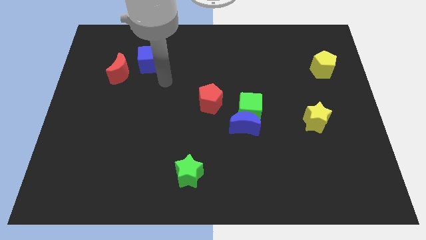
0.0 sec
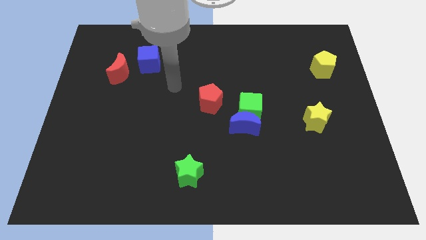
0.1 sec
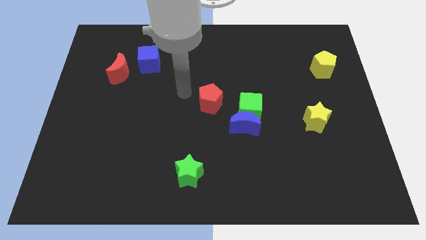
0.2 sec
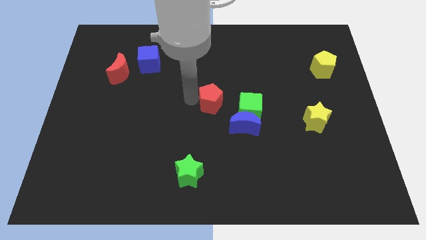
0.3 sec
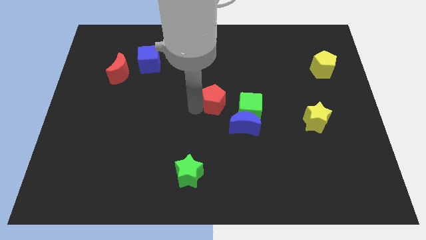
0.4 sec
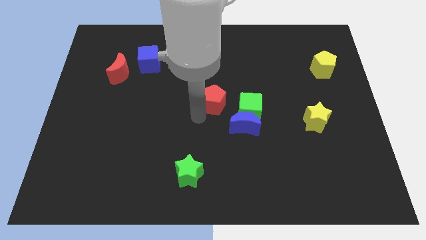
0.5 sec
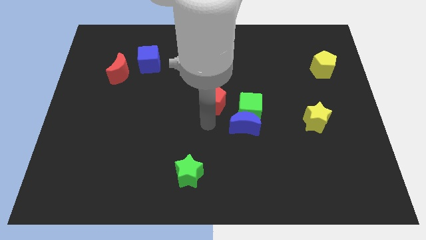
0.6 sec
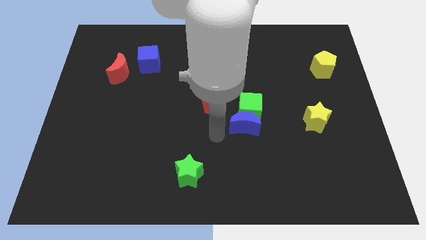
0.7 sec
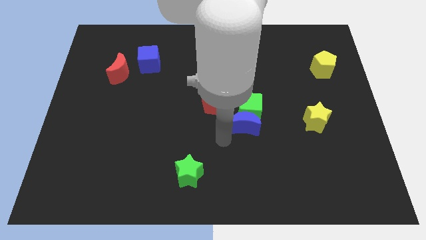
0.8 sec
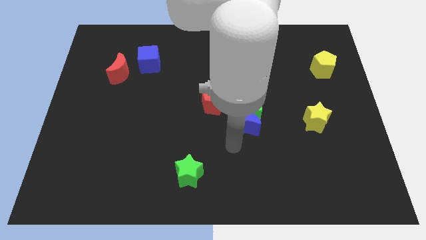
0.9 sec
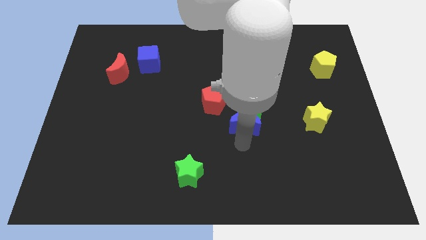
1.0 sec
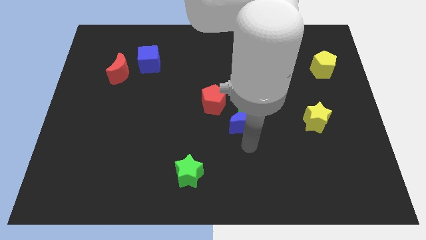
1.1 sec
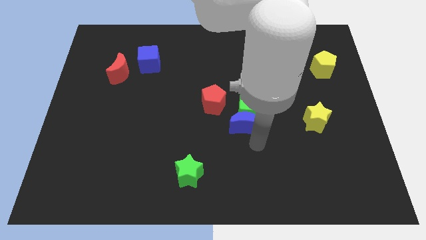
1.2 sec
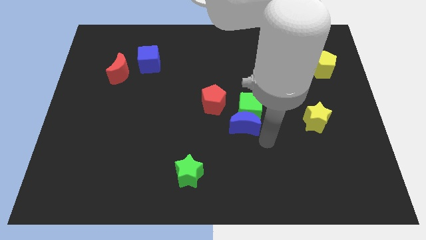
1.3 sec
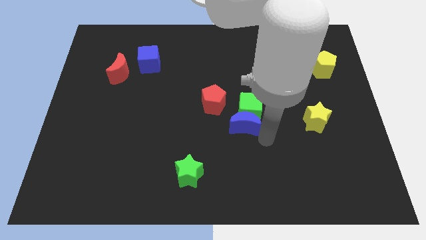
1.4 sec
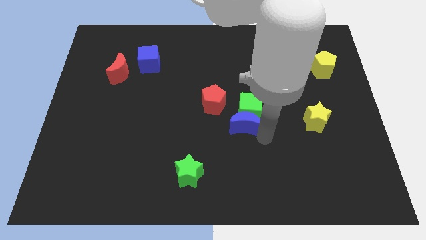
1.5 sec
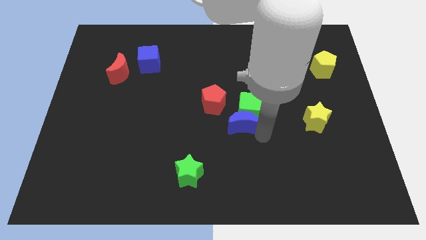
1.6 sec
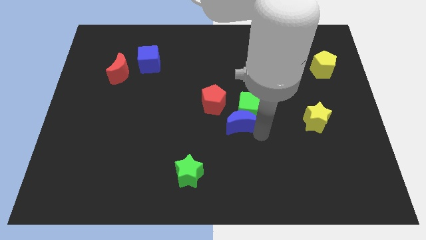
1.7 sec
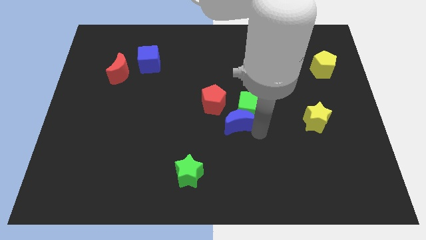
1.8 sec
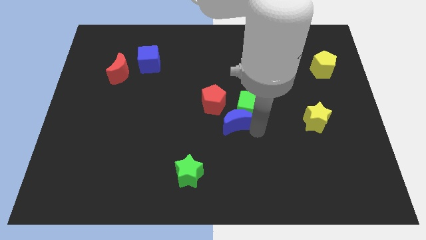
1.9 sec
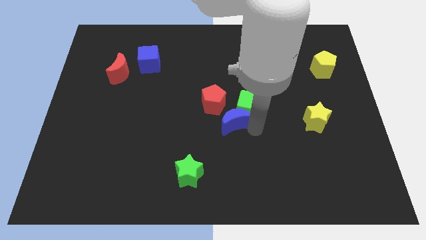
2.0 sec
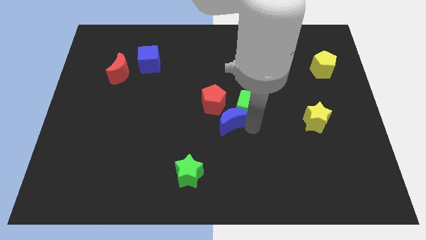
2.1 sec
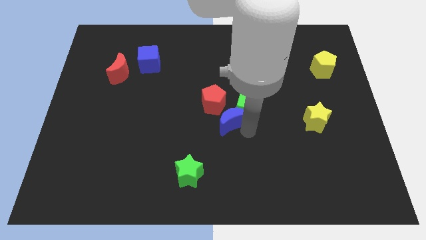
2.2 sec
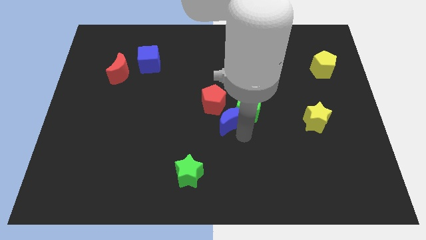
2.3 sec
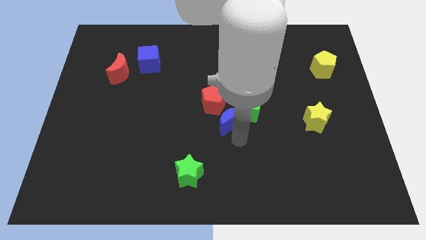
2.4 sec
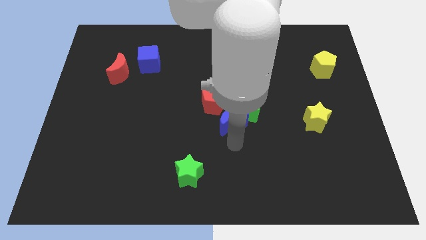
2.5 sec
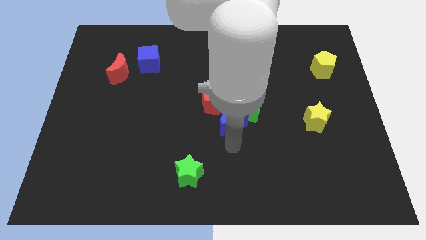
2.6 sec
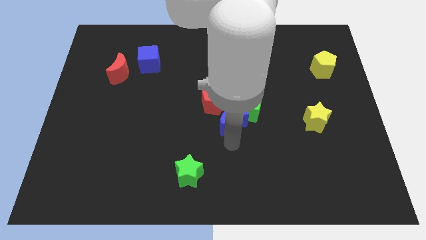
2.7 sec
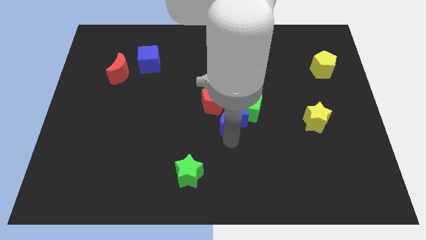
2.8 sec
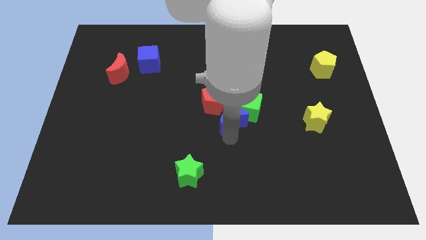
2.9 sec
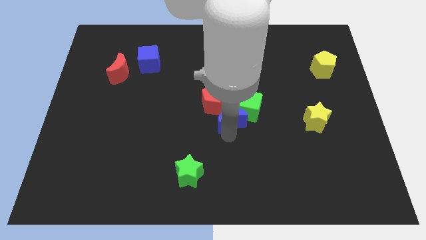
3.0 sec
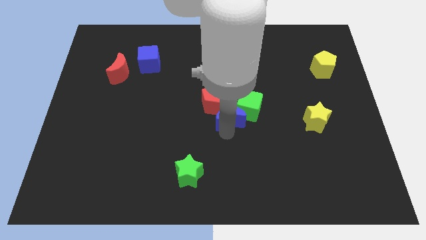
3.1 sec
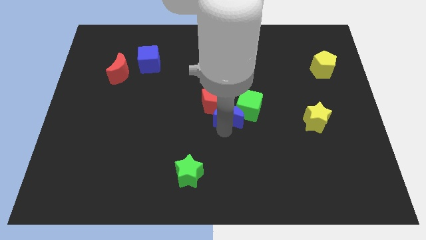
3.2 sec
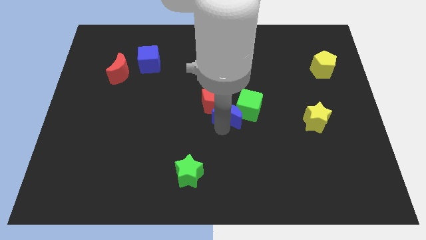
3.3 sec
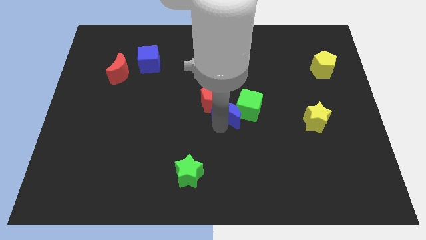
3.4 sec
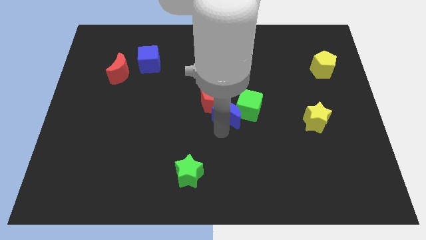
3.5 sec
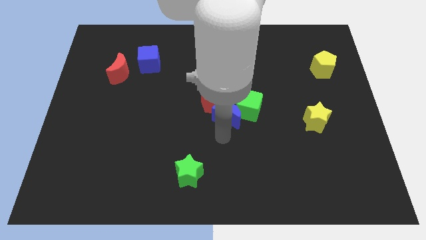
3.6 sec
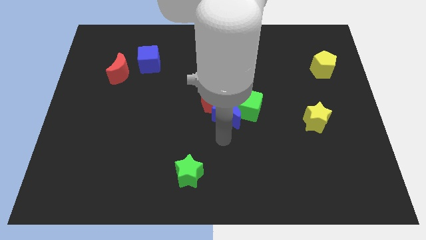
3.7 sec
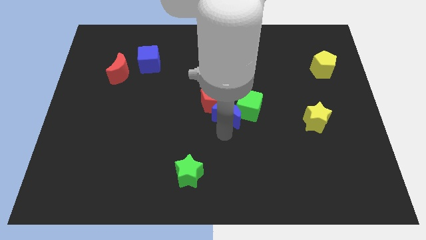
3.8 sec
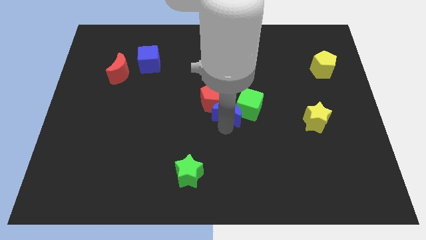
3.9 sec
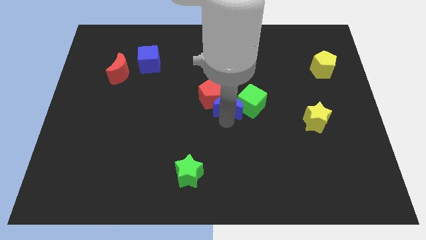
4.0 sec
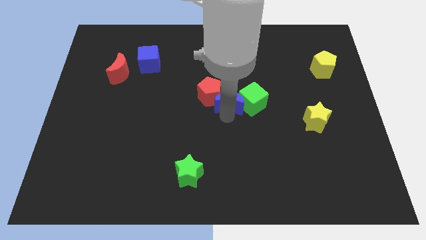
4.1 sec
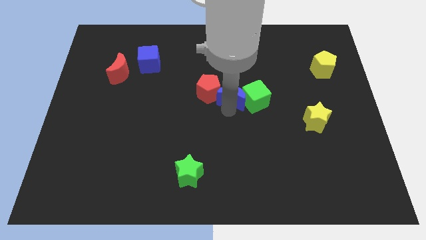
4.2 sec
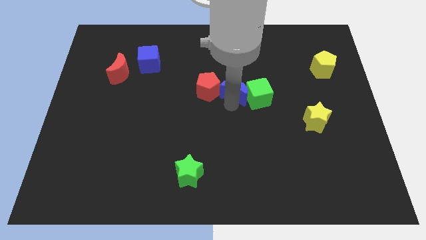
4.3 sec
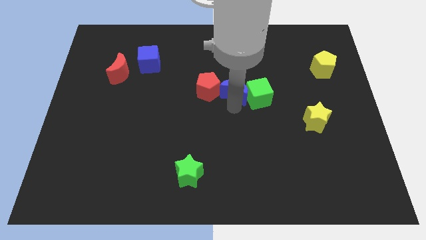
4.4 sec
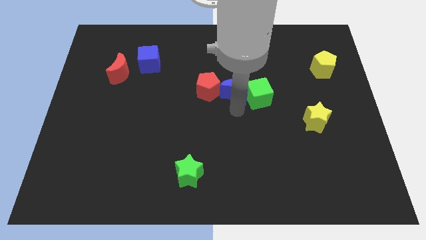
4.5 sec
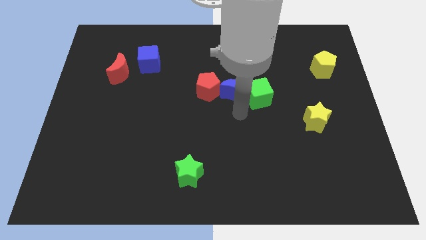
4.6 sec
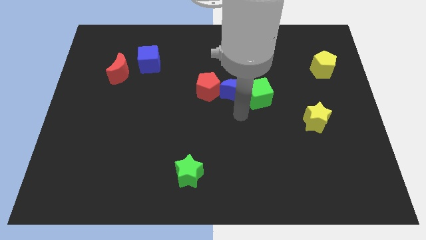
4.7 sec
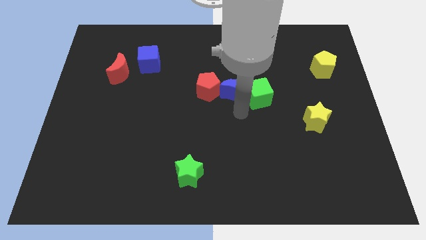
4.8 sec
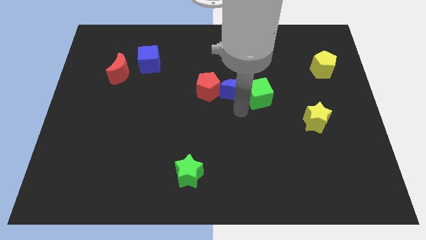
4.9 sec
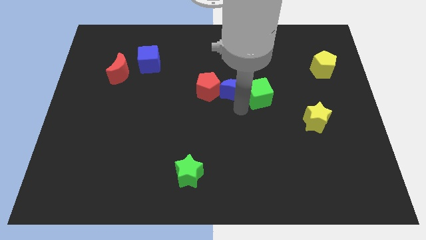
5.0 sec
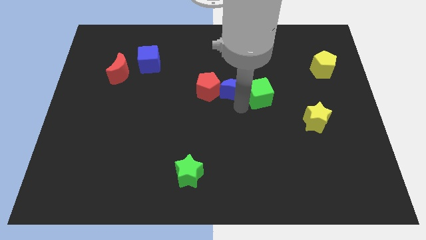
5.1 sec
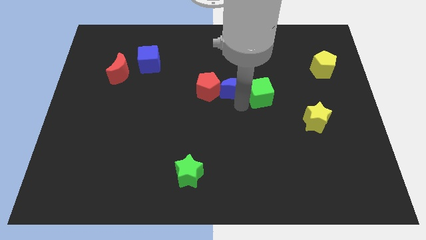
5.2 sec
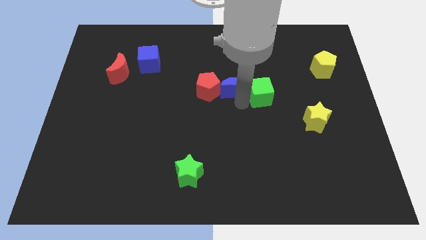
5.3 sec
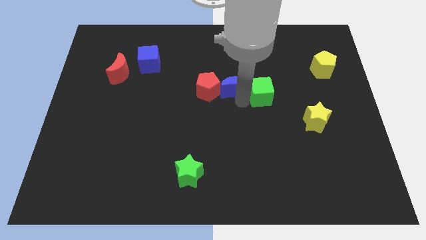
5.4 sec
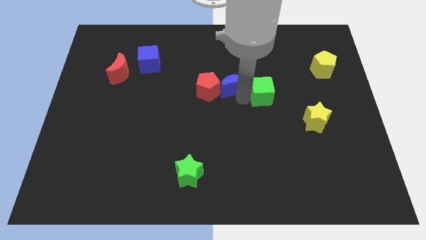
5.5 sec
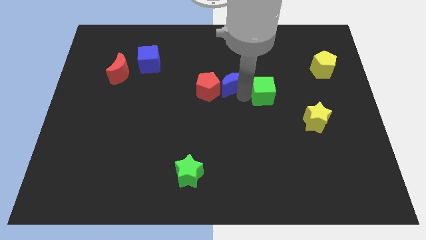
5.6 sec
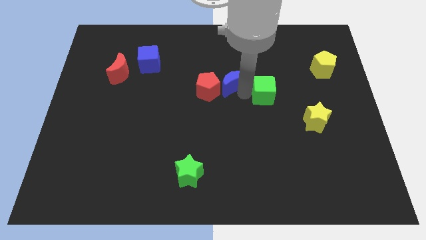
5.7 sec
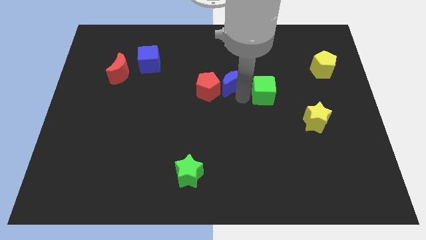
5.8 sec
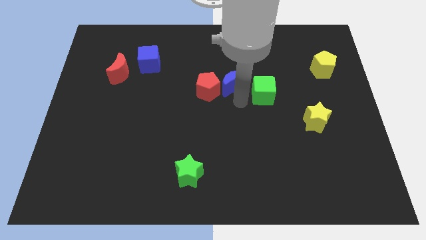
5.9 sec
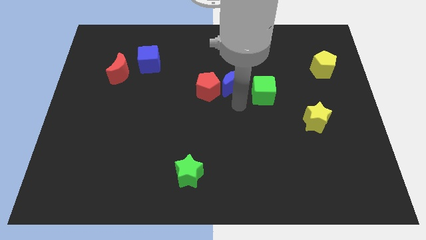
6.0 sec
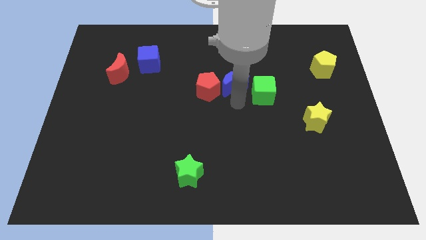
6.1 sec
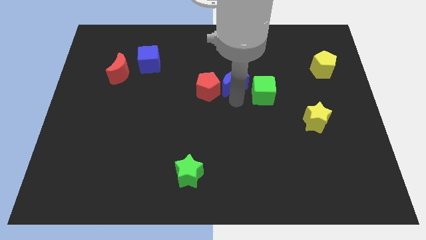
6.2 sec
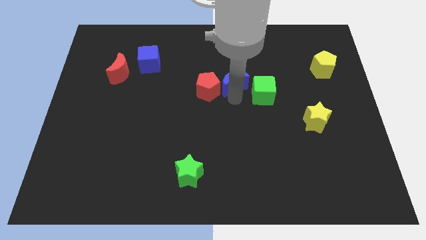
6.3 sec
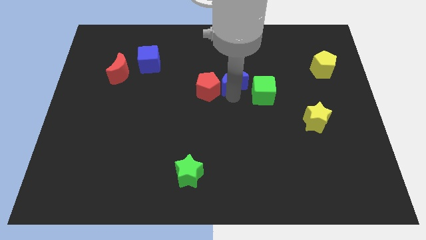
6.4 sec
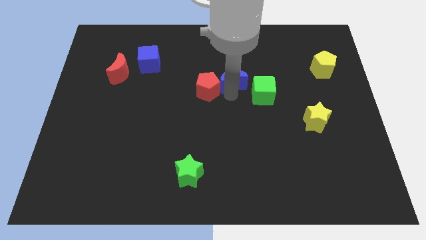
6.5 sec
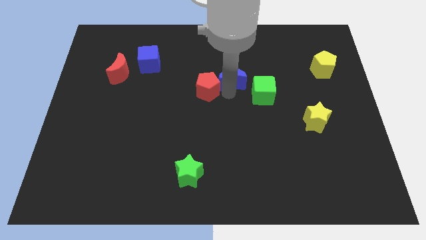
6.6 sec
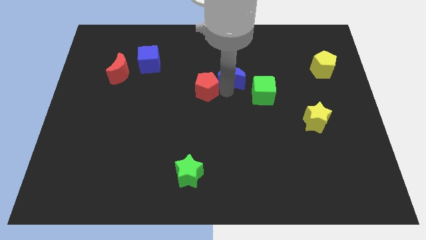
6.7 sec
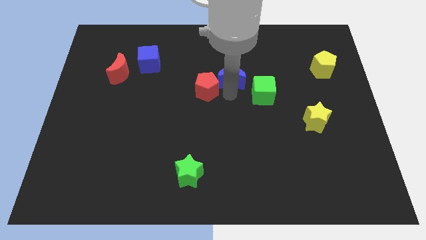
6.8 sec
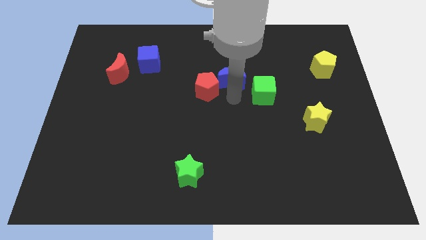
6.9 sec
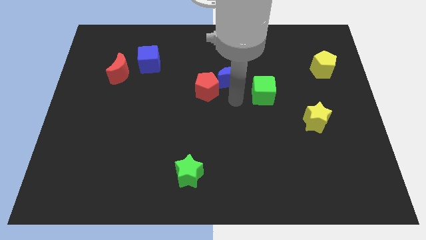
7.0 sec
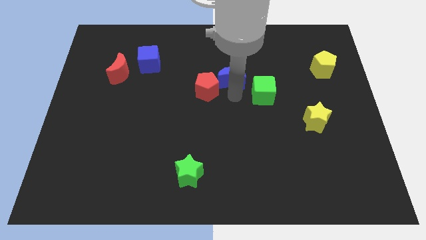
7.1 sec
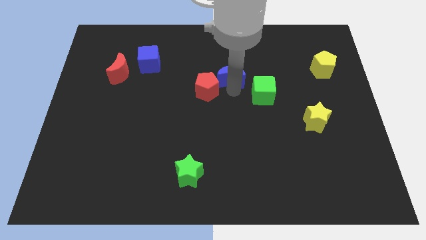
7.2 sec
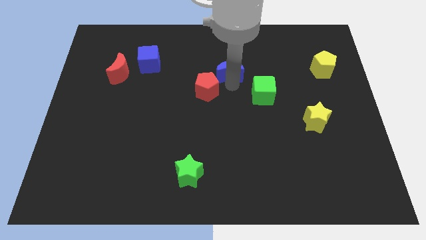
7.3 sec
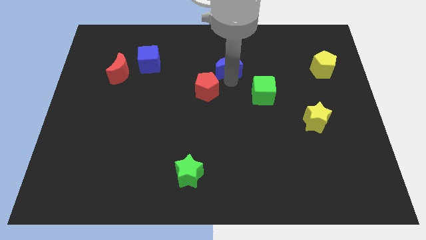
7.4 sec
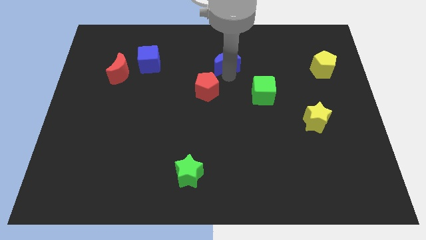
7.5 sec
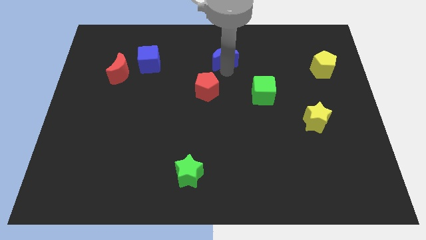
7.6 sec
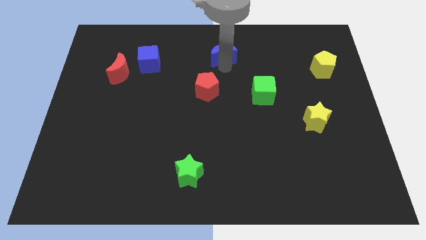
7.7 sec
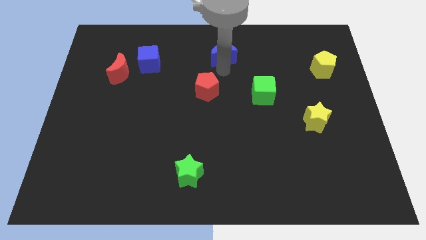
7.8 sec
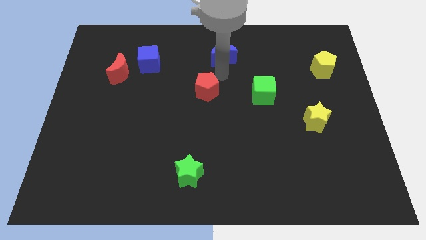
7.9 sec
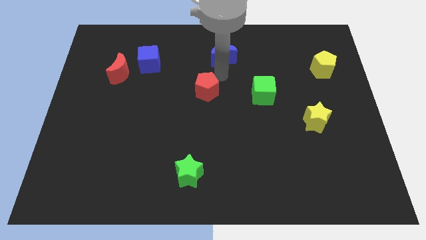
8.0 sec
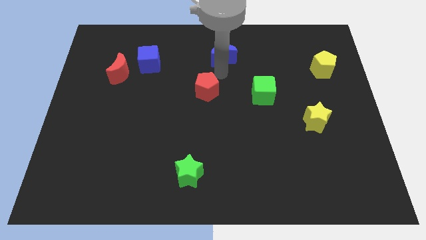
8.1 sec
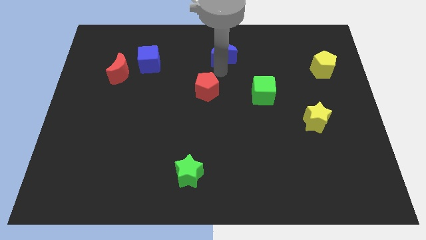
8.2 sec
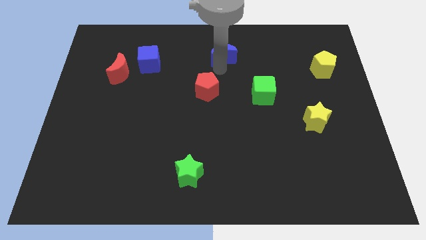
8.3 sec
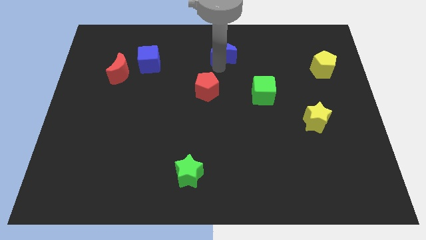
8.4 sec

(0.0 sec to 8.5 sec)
push the blue moon to the towards your base
